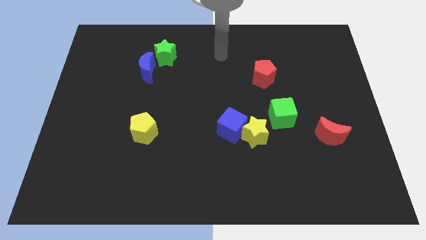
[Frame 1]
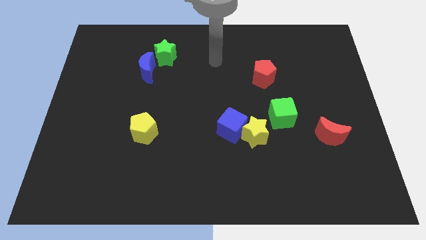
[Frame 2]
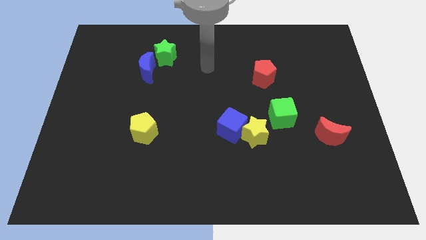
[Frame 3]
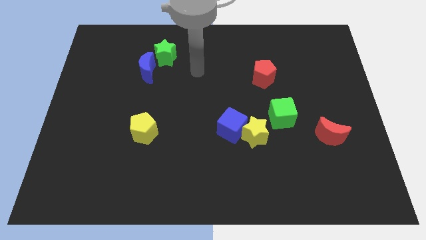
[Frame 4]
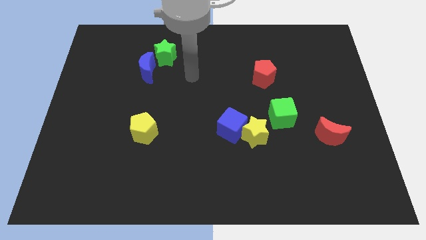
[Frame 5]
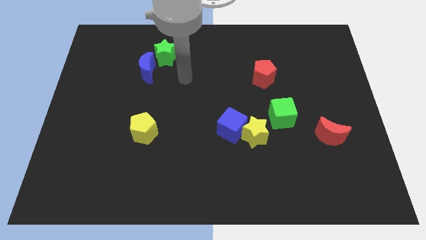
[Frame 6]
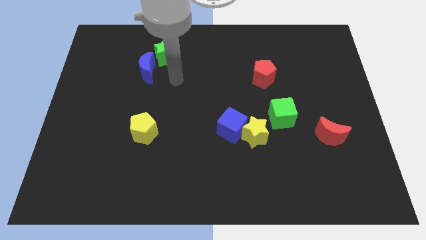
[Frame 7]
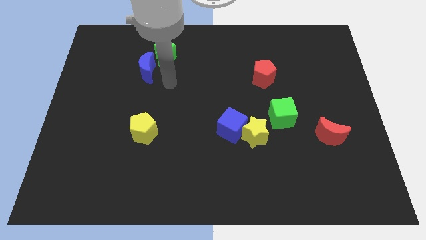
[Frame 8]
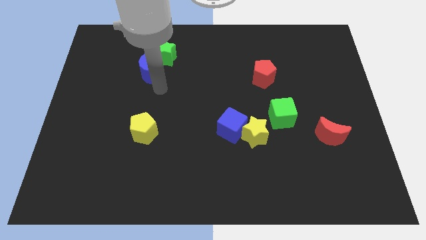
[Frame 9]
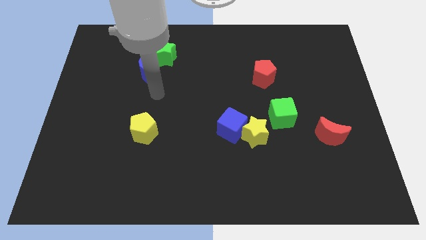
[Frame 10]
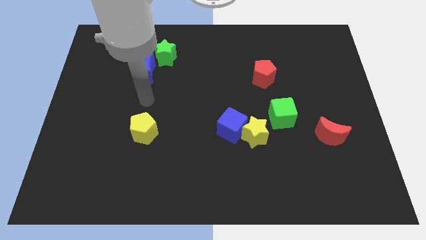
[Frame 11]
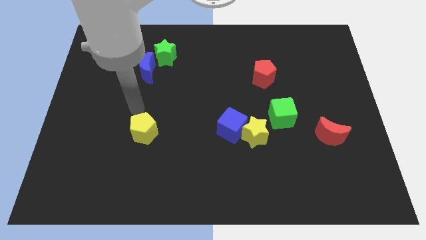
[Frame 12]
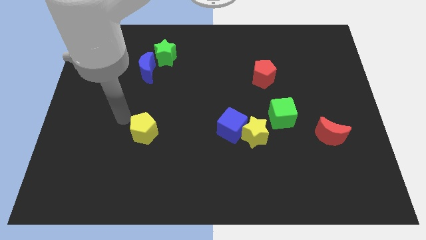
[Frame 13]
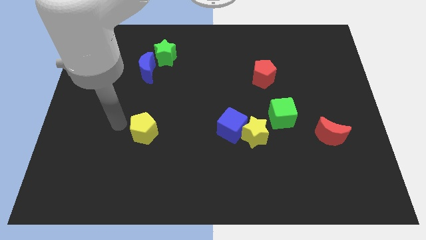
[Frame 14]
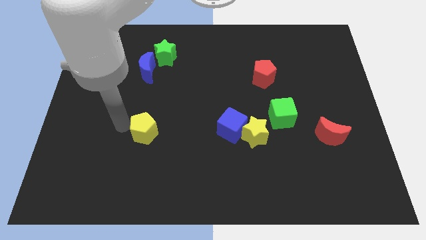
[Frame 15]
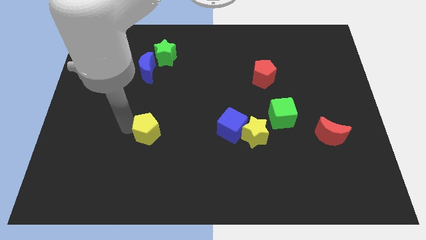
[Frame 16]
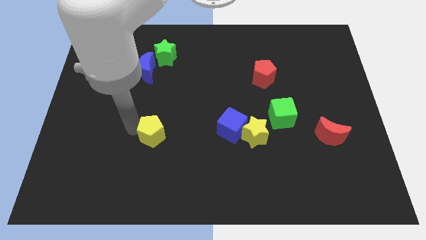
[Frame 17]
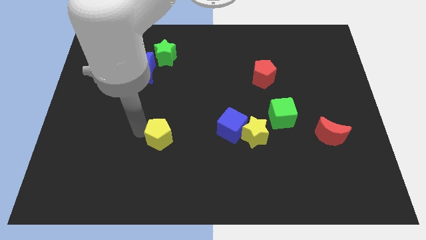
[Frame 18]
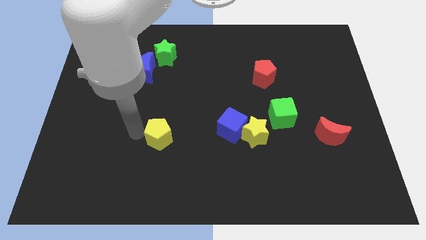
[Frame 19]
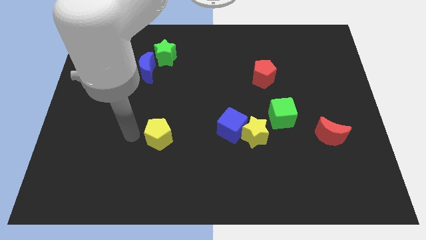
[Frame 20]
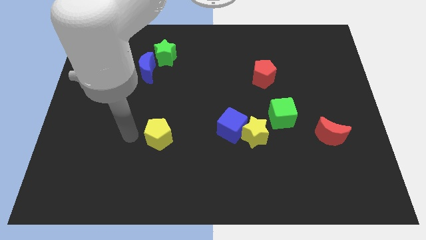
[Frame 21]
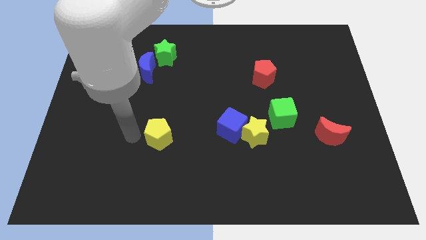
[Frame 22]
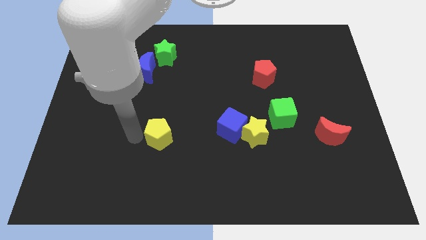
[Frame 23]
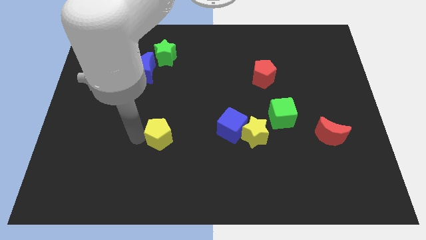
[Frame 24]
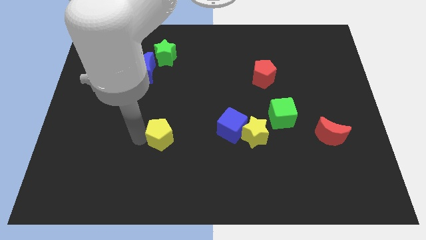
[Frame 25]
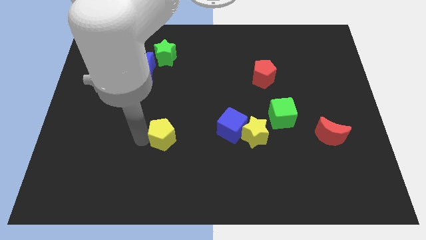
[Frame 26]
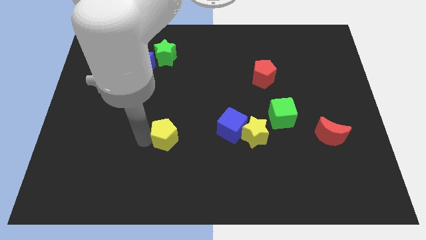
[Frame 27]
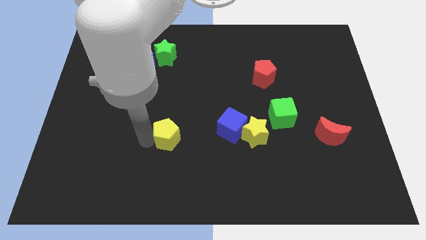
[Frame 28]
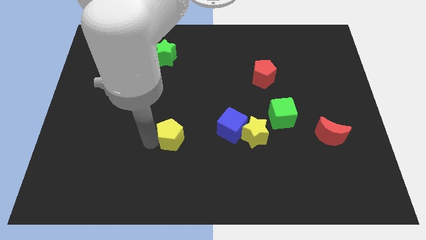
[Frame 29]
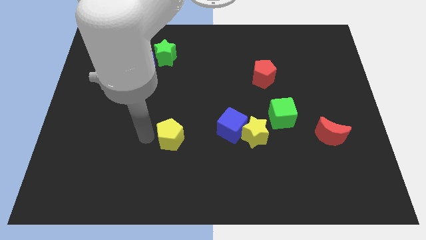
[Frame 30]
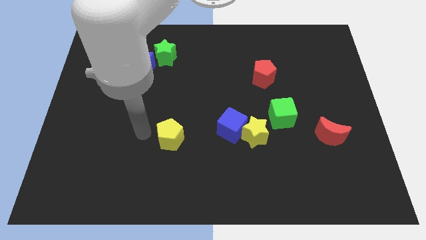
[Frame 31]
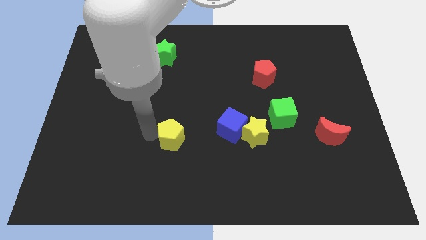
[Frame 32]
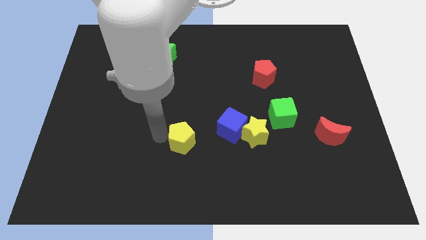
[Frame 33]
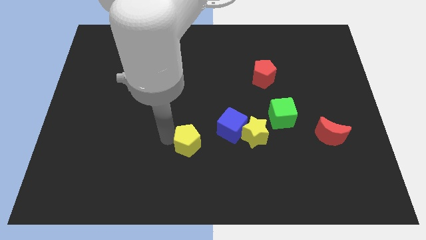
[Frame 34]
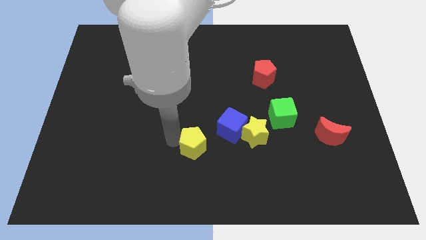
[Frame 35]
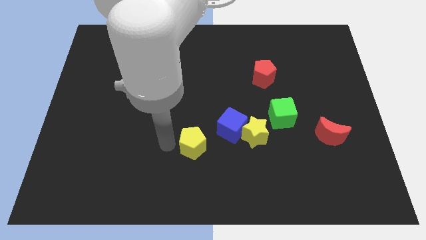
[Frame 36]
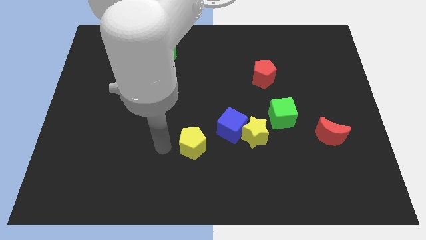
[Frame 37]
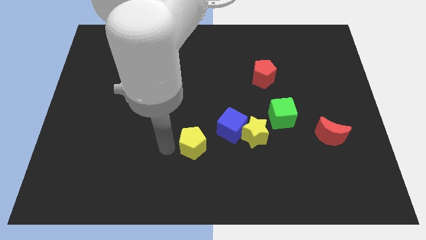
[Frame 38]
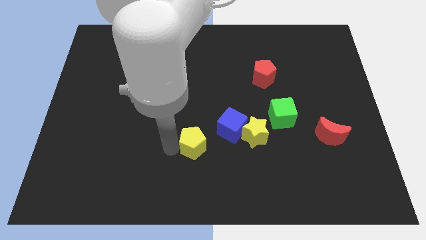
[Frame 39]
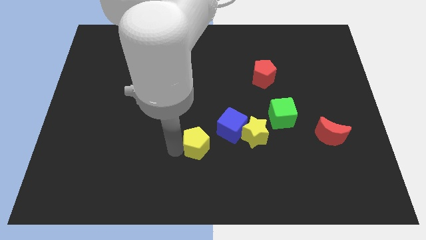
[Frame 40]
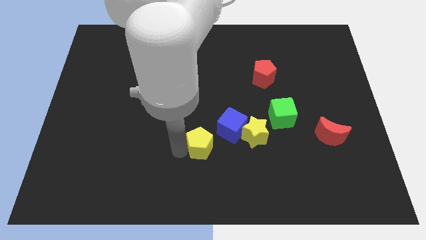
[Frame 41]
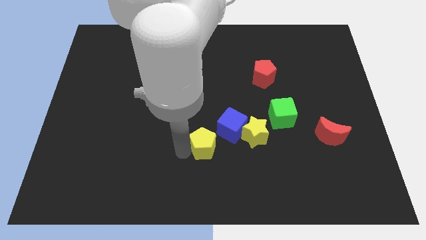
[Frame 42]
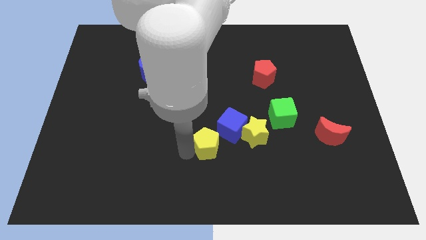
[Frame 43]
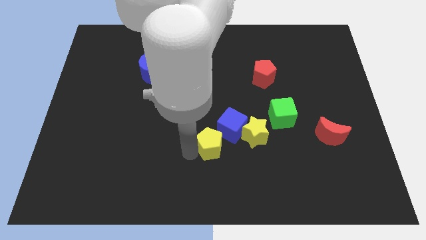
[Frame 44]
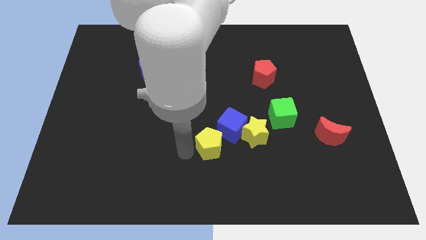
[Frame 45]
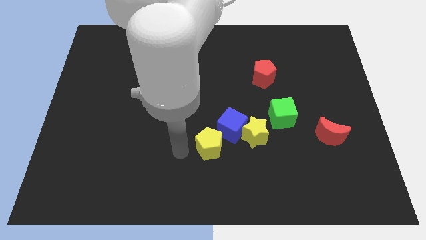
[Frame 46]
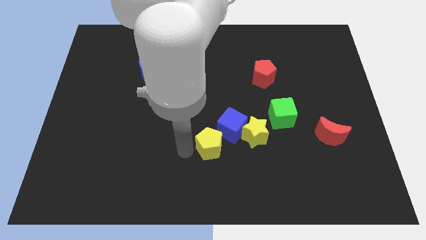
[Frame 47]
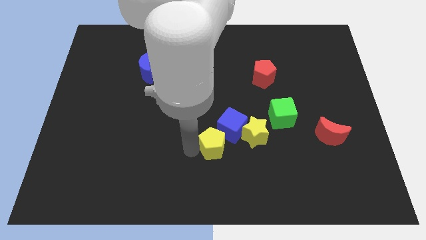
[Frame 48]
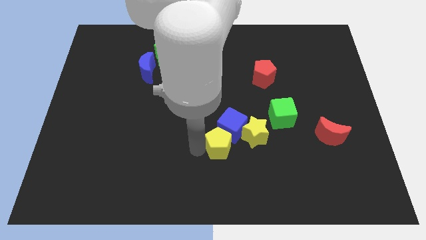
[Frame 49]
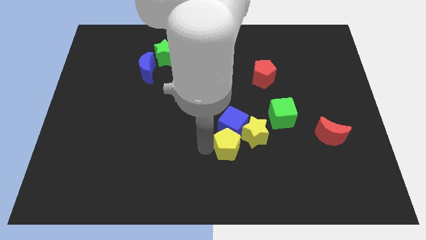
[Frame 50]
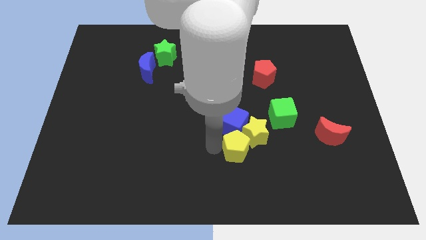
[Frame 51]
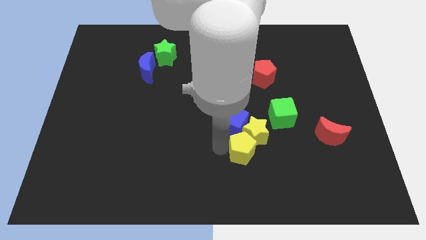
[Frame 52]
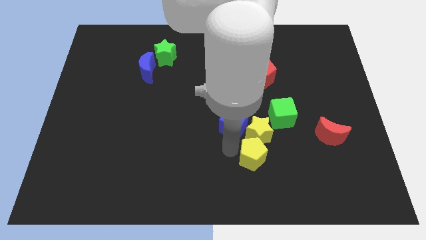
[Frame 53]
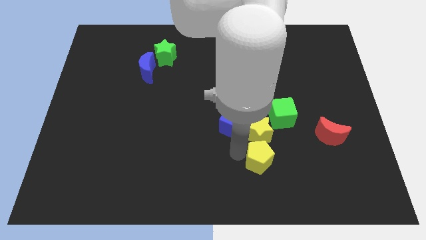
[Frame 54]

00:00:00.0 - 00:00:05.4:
move the yellow pentagon diagonally down and to the right of the yellow star

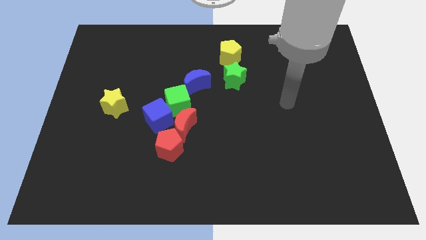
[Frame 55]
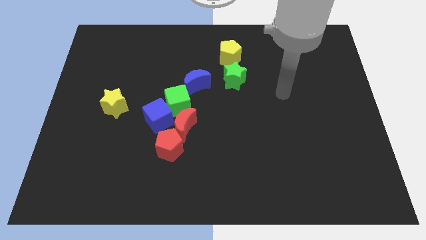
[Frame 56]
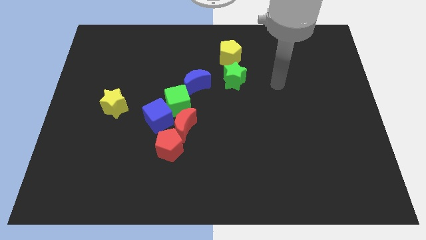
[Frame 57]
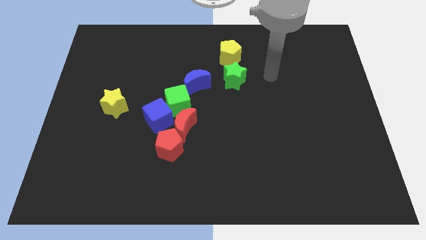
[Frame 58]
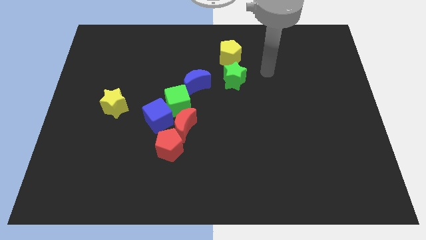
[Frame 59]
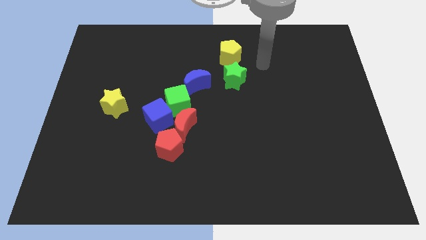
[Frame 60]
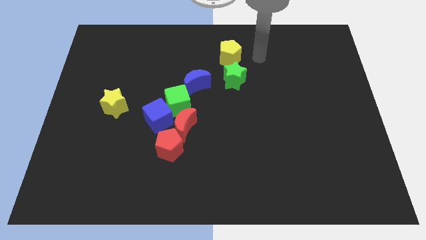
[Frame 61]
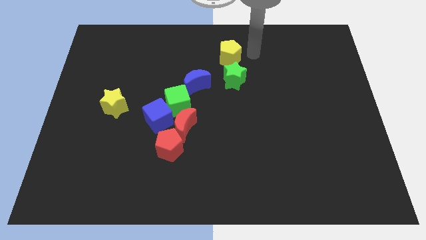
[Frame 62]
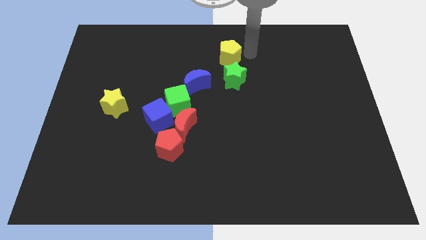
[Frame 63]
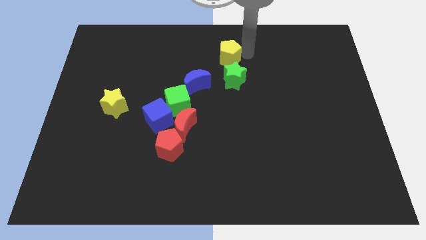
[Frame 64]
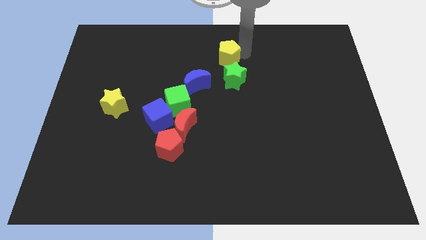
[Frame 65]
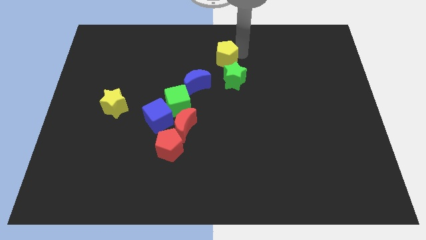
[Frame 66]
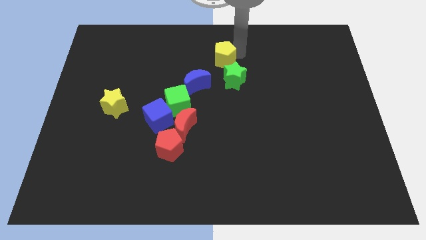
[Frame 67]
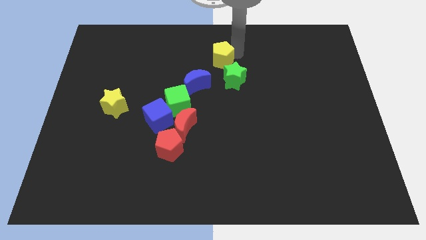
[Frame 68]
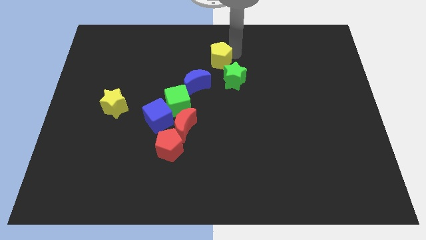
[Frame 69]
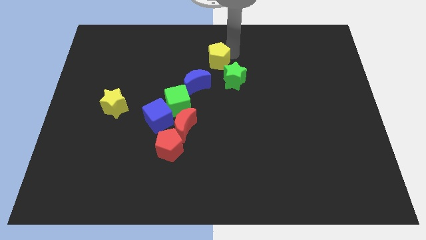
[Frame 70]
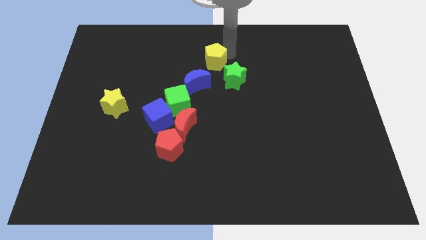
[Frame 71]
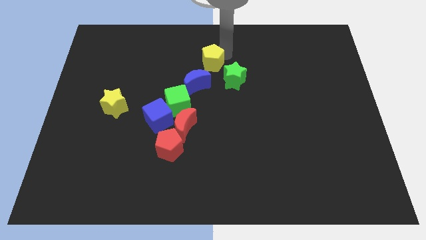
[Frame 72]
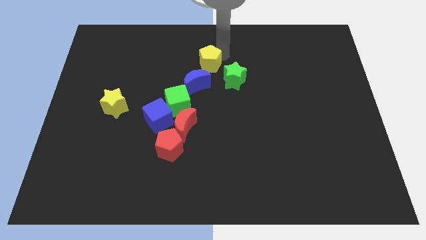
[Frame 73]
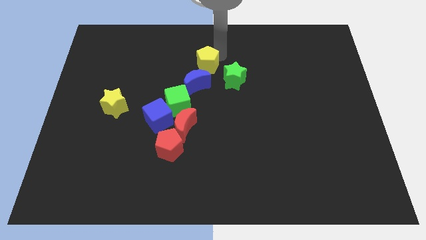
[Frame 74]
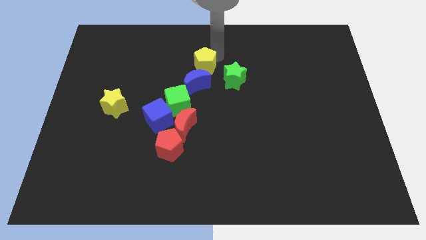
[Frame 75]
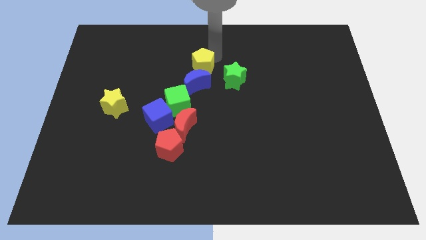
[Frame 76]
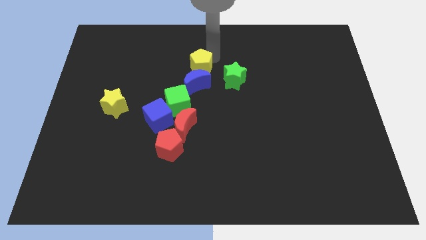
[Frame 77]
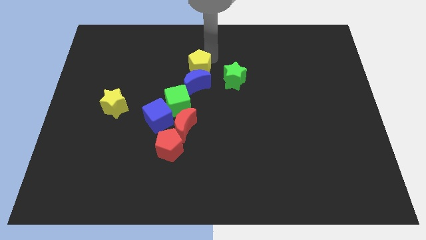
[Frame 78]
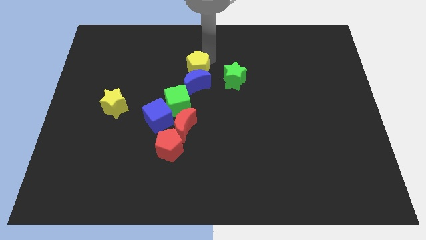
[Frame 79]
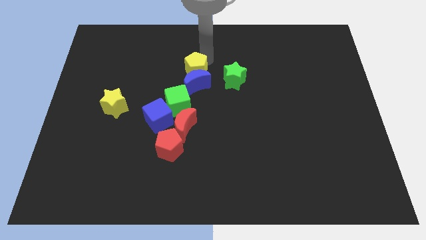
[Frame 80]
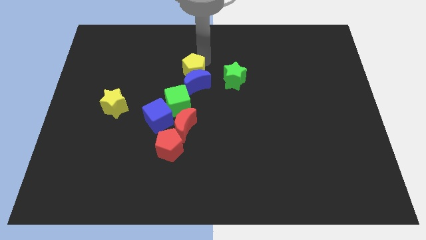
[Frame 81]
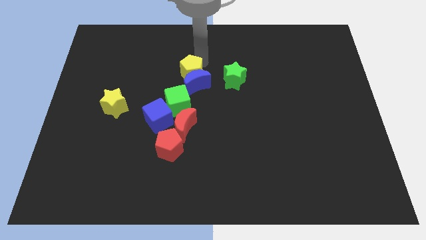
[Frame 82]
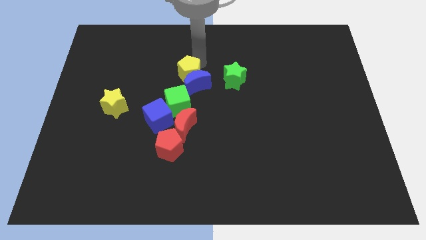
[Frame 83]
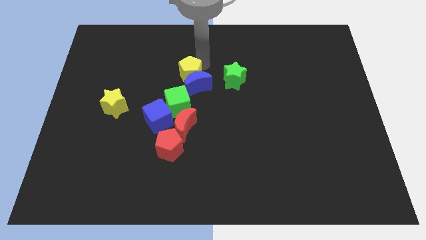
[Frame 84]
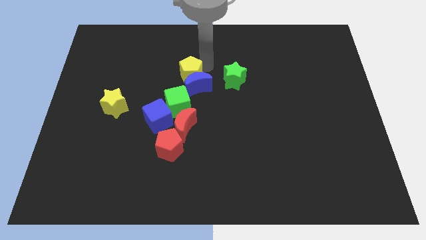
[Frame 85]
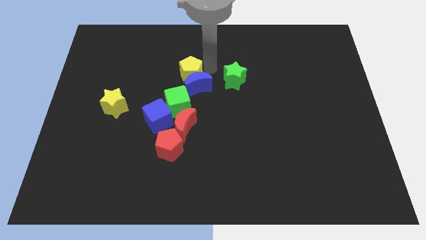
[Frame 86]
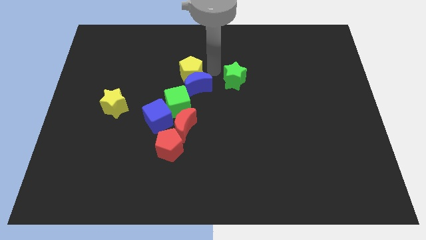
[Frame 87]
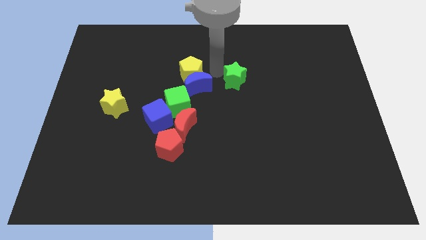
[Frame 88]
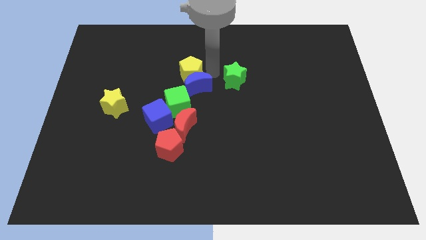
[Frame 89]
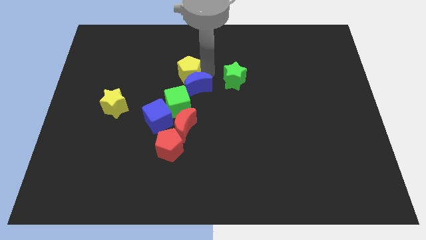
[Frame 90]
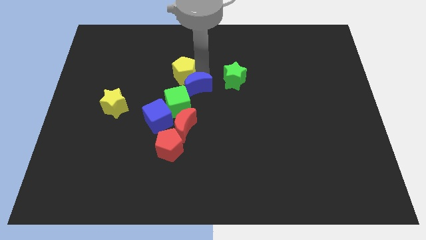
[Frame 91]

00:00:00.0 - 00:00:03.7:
slide the yellow pentagon just left of the blue moon
